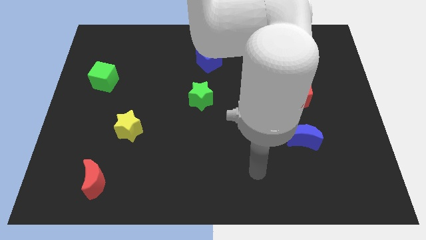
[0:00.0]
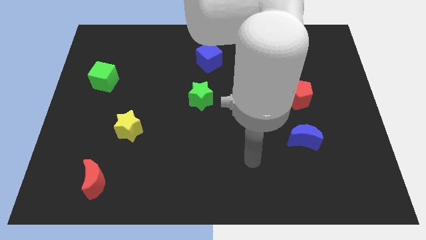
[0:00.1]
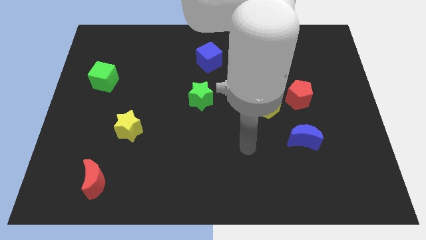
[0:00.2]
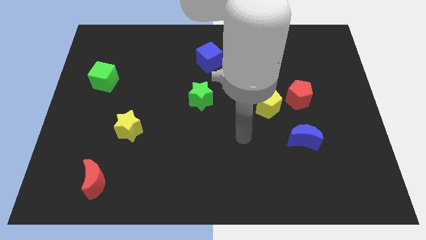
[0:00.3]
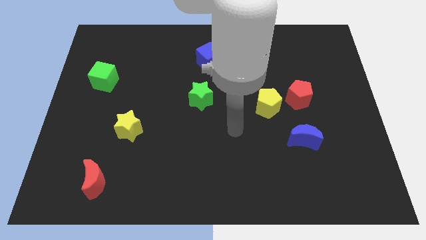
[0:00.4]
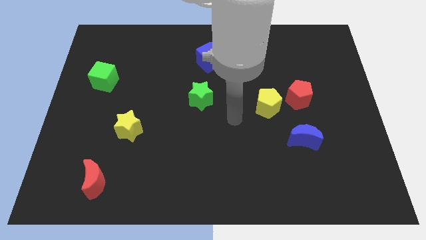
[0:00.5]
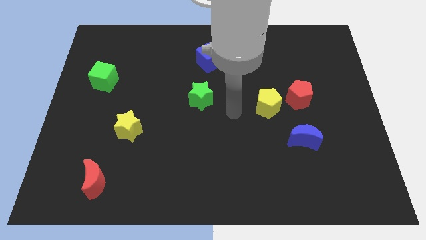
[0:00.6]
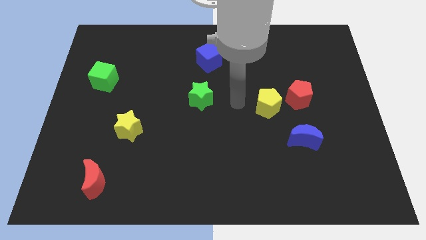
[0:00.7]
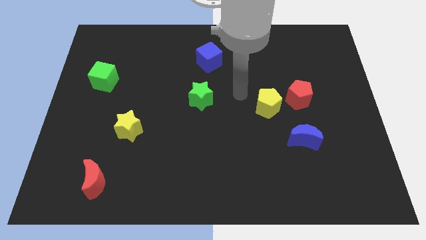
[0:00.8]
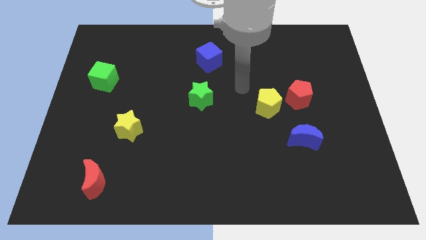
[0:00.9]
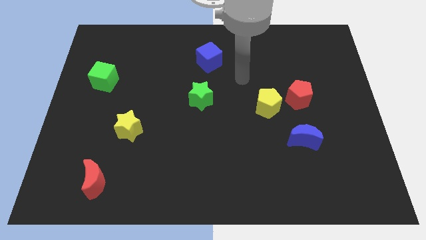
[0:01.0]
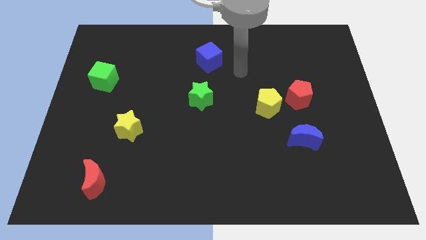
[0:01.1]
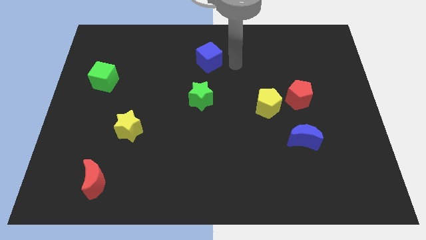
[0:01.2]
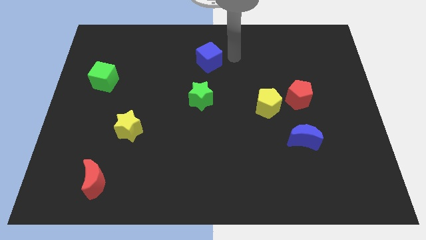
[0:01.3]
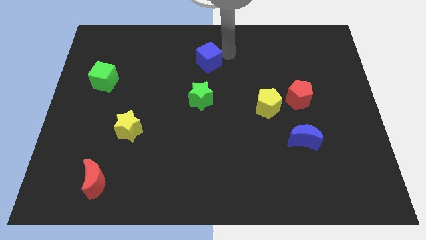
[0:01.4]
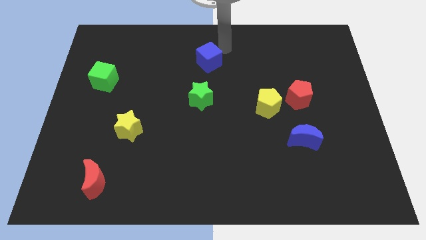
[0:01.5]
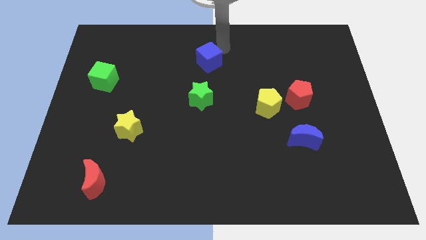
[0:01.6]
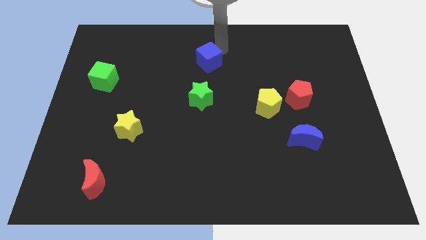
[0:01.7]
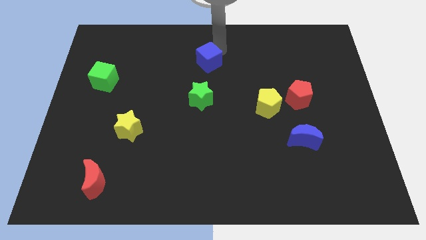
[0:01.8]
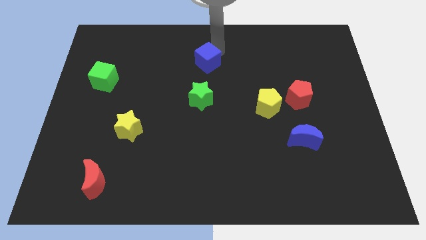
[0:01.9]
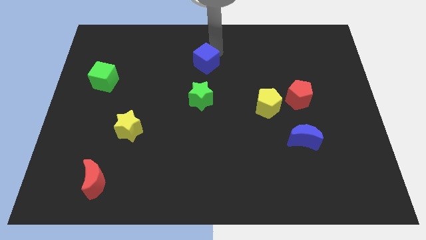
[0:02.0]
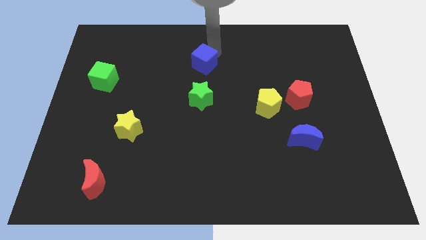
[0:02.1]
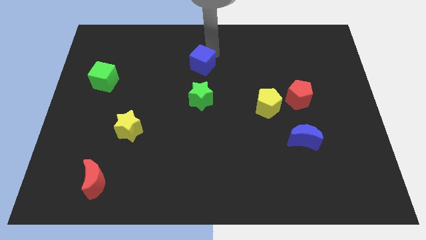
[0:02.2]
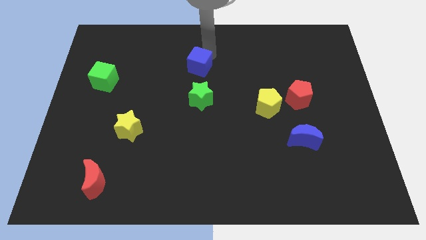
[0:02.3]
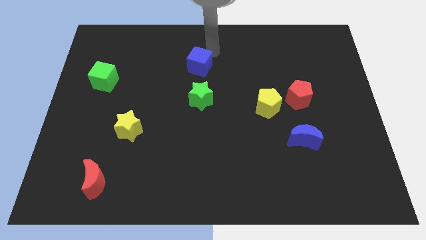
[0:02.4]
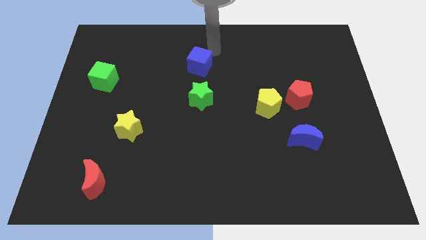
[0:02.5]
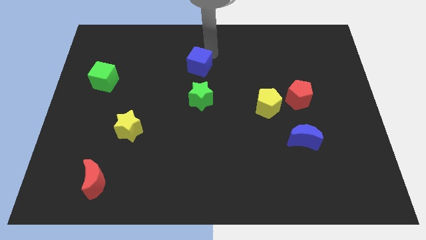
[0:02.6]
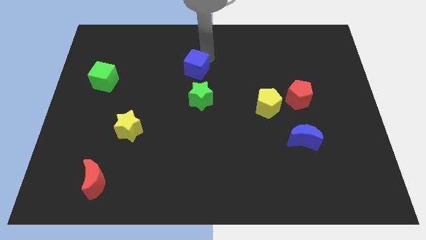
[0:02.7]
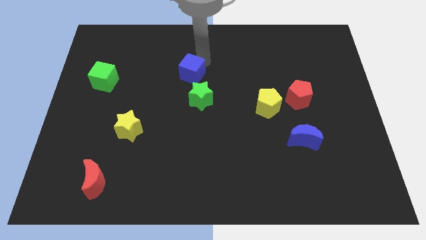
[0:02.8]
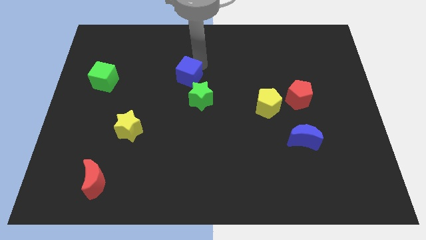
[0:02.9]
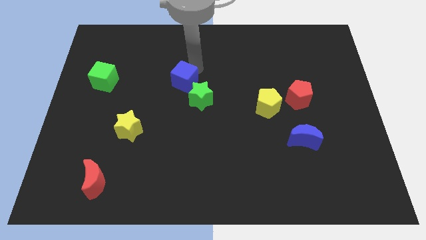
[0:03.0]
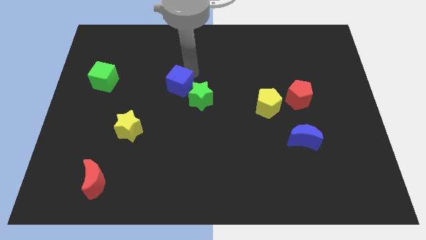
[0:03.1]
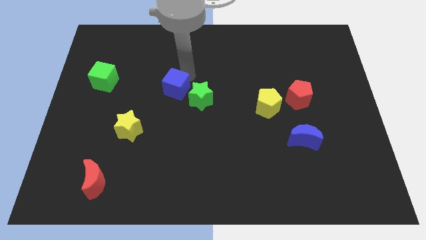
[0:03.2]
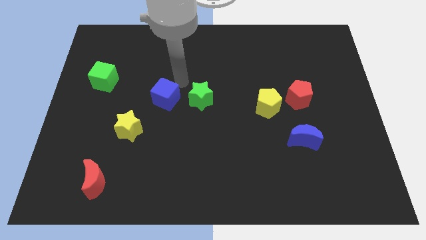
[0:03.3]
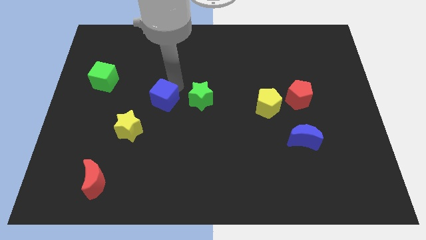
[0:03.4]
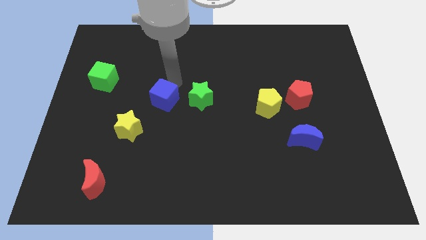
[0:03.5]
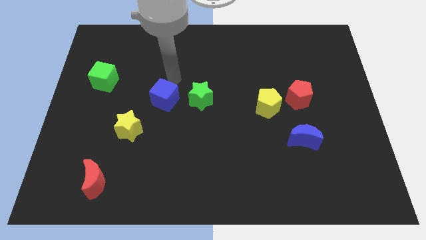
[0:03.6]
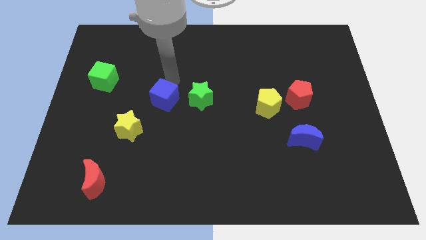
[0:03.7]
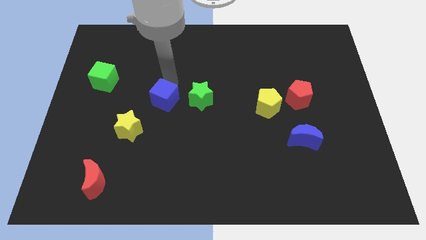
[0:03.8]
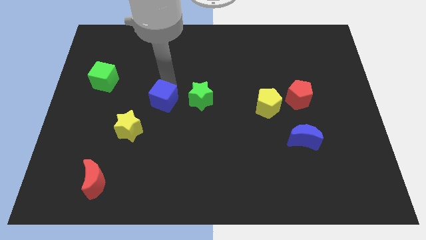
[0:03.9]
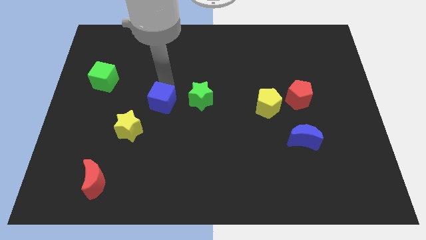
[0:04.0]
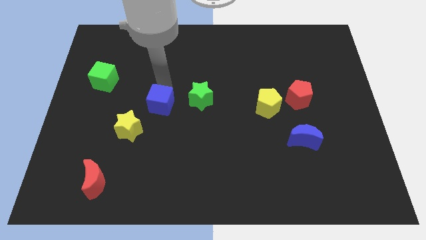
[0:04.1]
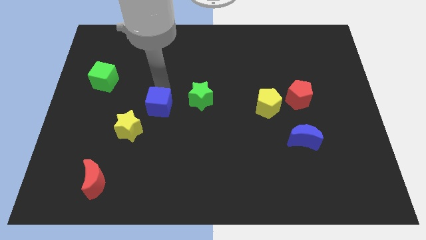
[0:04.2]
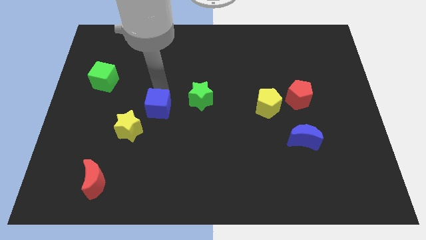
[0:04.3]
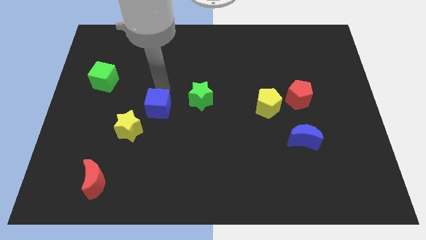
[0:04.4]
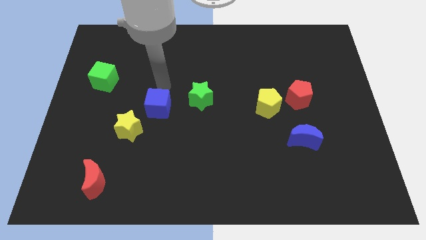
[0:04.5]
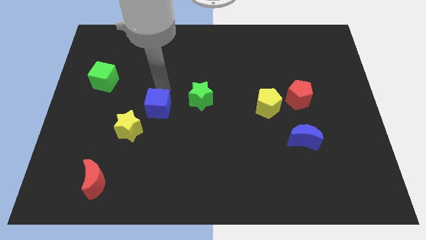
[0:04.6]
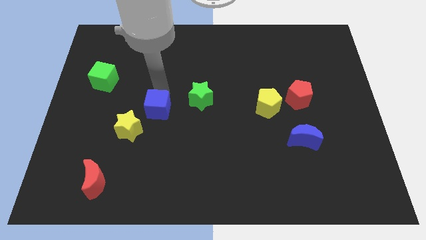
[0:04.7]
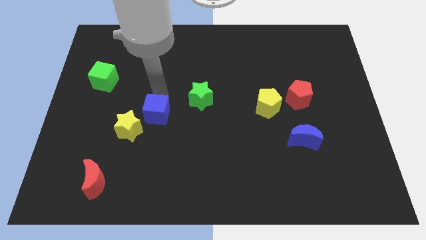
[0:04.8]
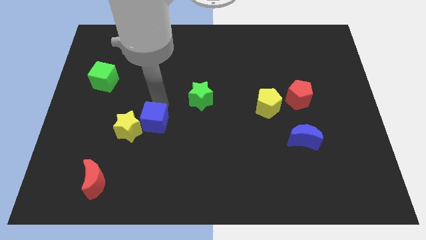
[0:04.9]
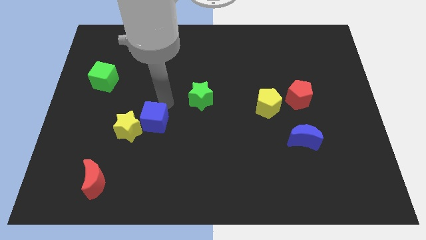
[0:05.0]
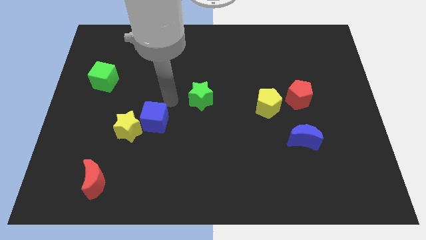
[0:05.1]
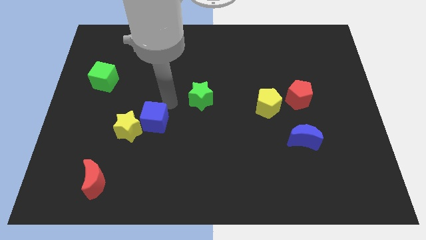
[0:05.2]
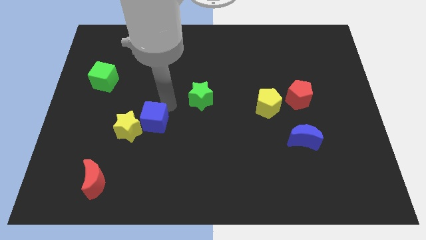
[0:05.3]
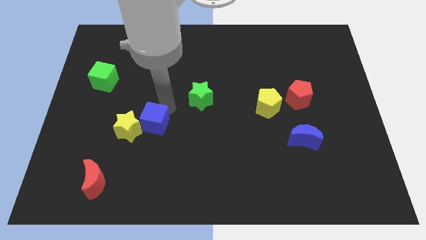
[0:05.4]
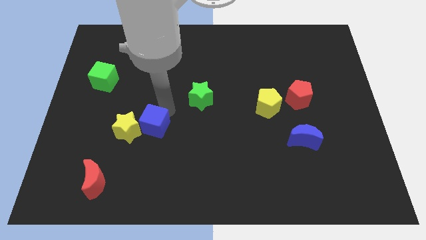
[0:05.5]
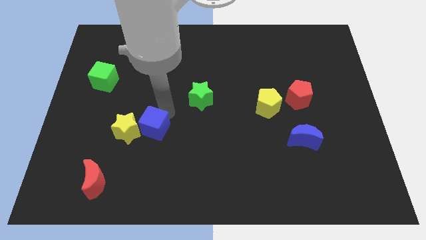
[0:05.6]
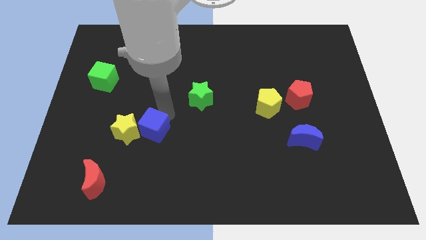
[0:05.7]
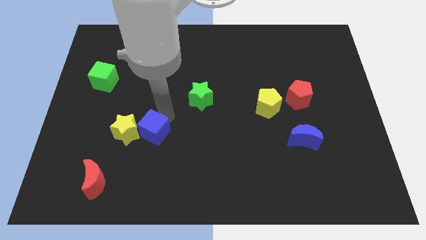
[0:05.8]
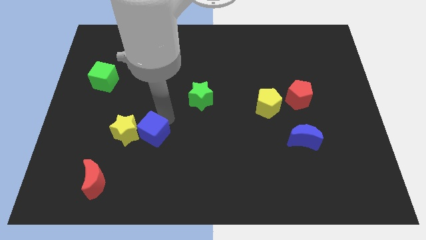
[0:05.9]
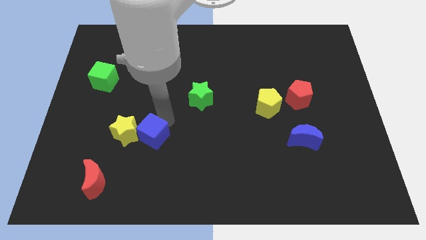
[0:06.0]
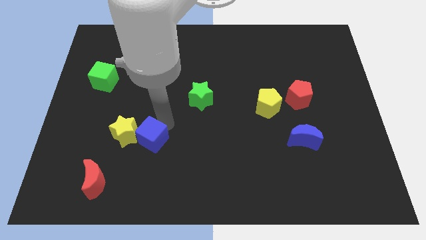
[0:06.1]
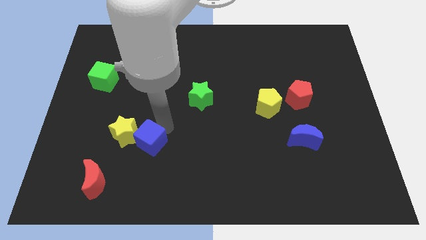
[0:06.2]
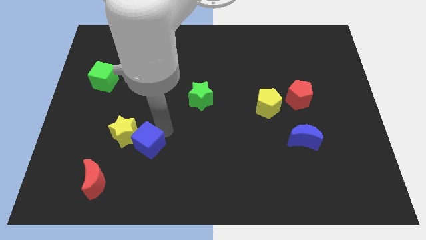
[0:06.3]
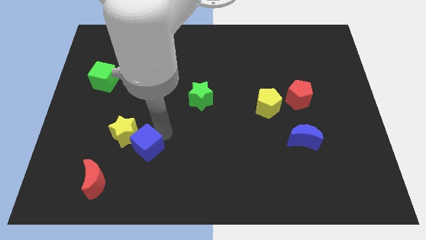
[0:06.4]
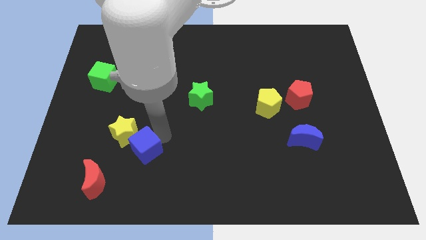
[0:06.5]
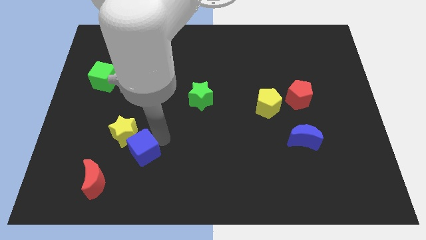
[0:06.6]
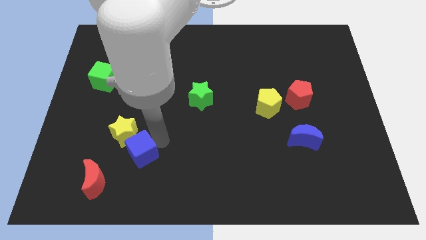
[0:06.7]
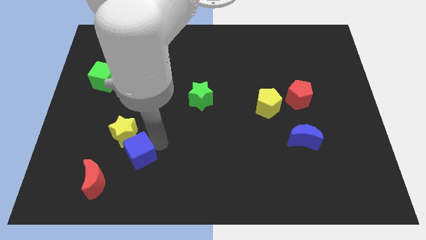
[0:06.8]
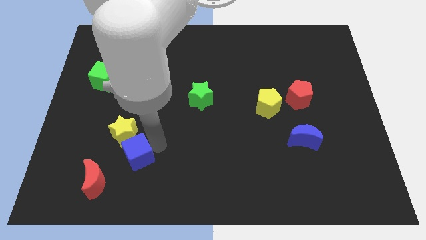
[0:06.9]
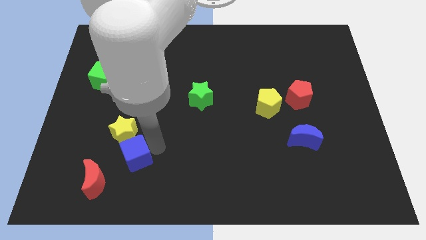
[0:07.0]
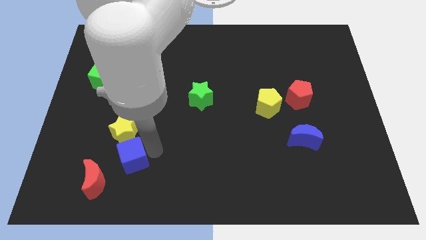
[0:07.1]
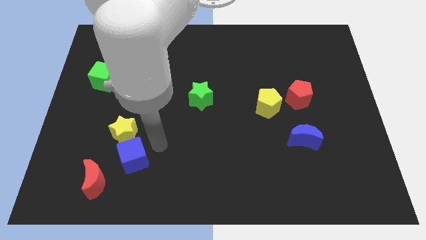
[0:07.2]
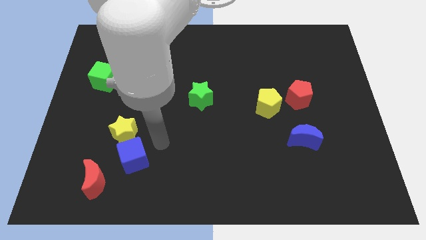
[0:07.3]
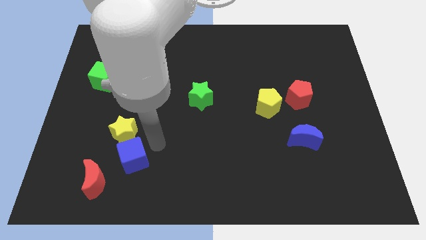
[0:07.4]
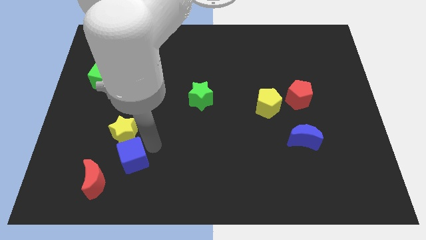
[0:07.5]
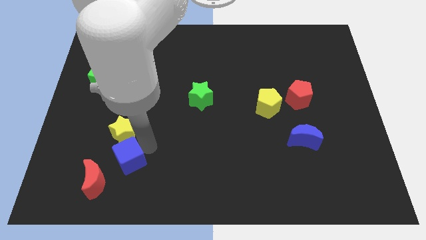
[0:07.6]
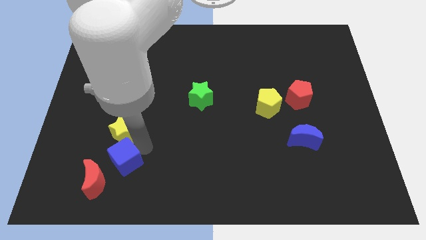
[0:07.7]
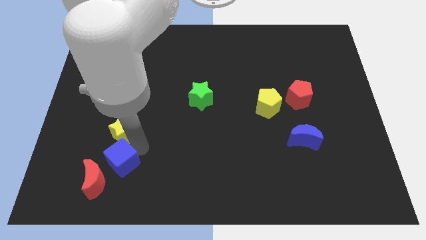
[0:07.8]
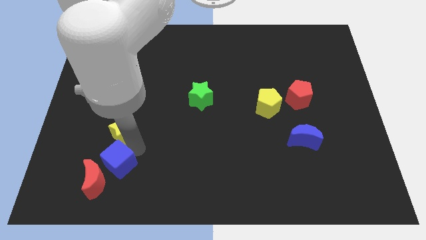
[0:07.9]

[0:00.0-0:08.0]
put the blue cube next to the red moon

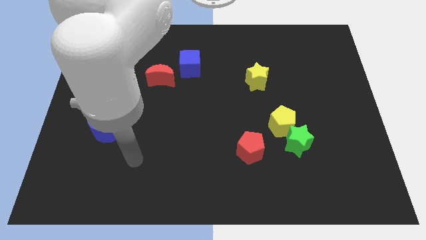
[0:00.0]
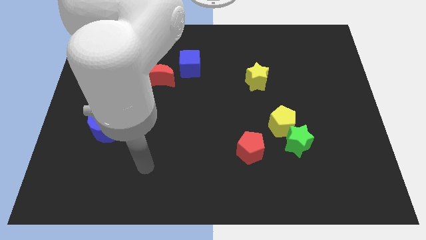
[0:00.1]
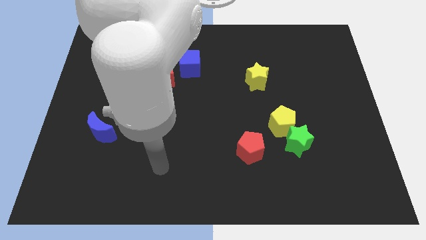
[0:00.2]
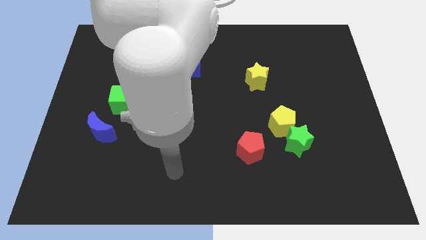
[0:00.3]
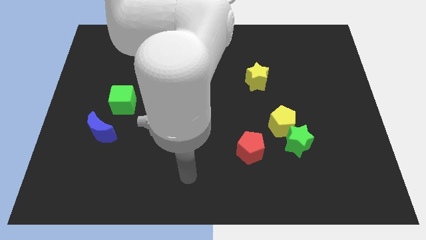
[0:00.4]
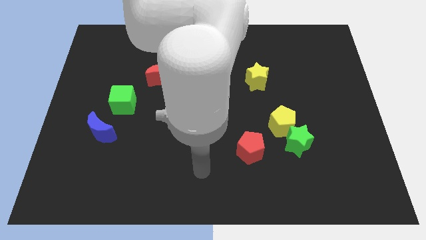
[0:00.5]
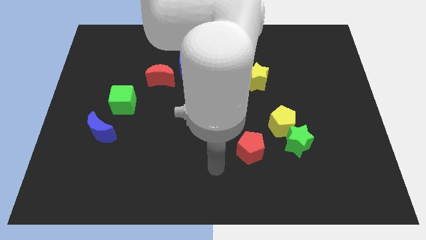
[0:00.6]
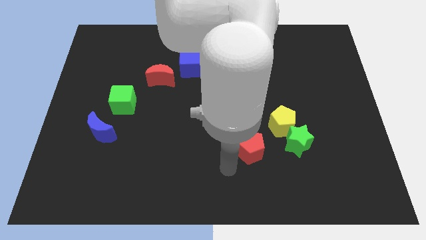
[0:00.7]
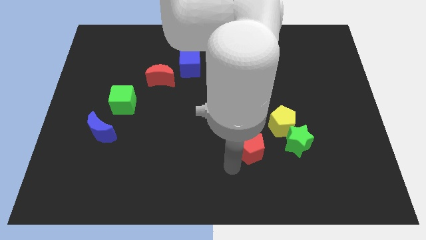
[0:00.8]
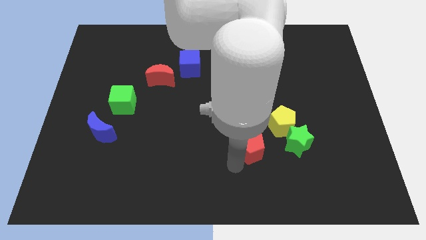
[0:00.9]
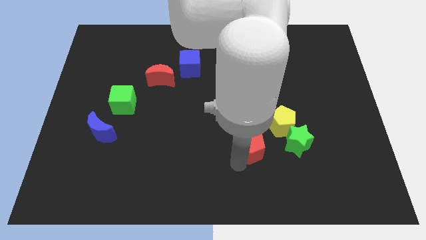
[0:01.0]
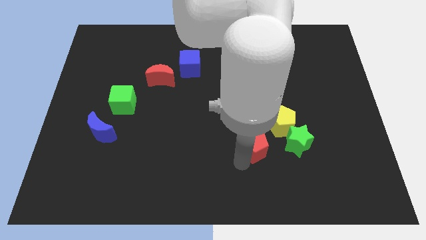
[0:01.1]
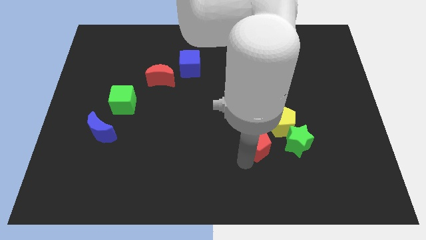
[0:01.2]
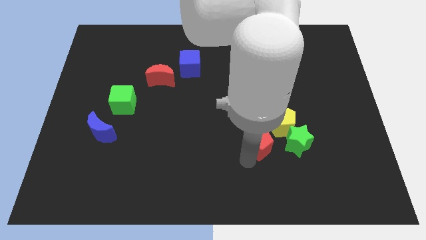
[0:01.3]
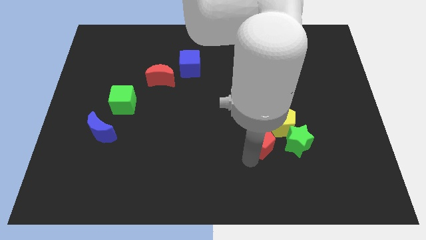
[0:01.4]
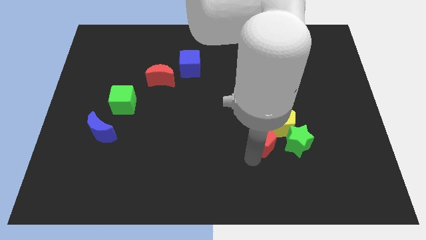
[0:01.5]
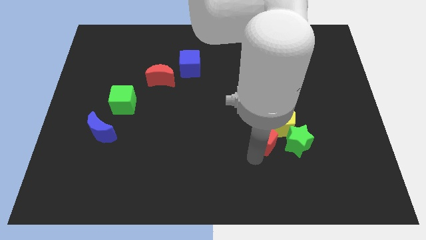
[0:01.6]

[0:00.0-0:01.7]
move the red pentagon to the yellow pentagon
